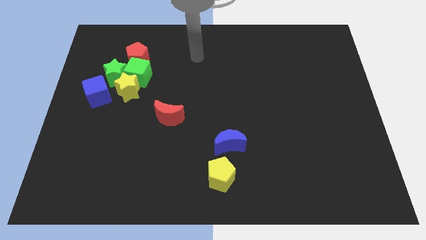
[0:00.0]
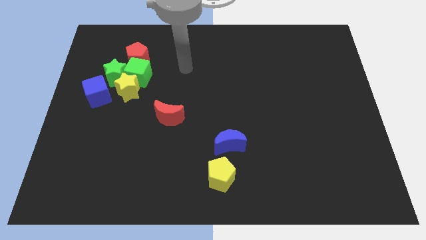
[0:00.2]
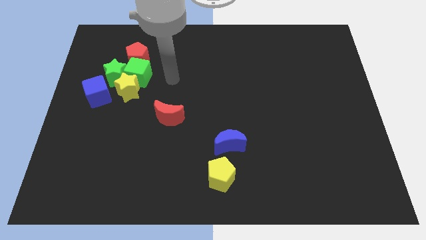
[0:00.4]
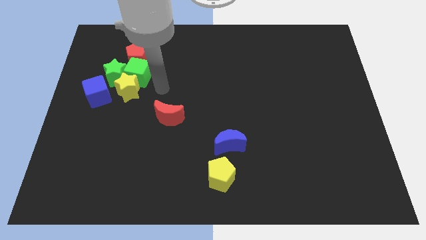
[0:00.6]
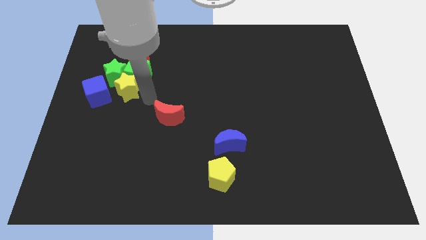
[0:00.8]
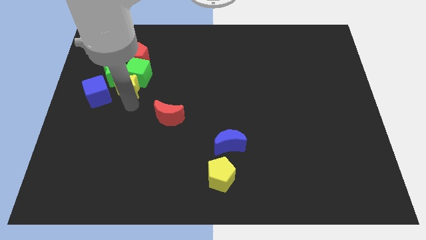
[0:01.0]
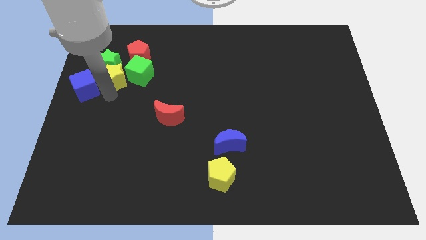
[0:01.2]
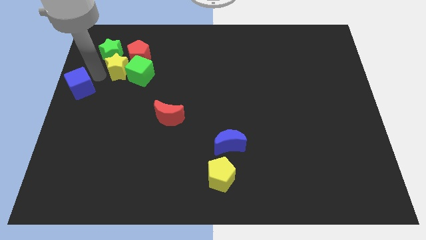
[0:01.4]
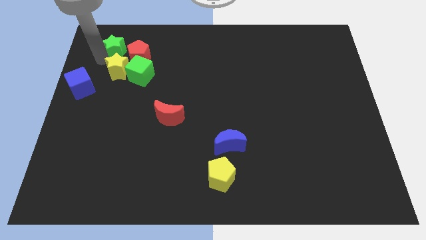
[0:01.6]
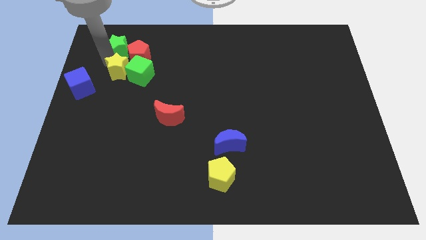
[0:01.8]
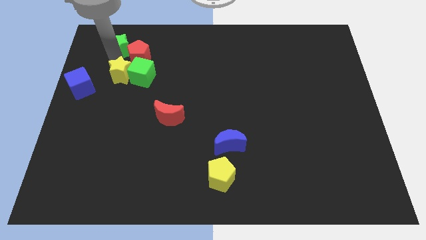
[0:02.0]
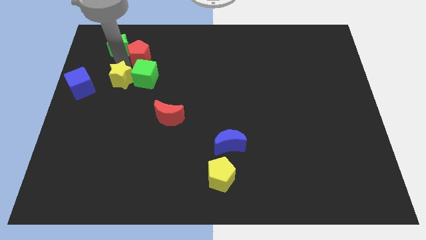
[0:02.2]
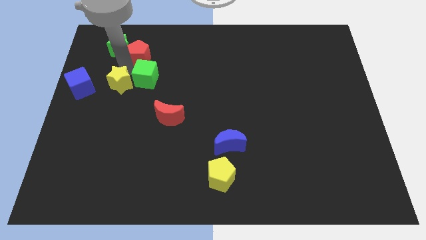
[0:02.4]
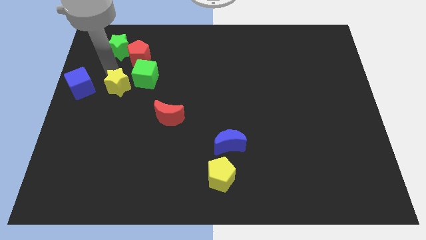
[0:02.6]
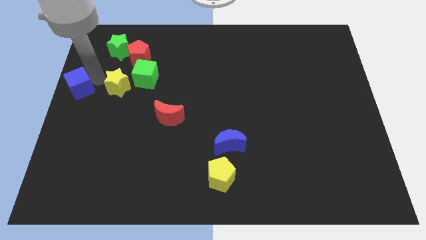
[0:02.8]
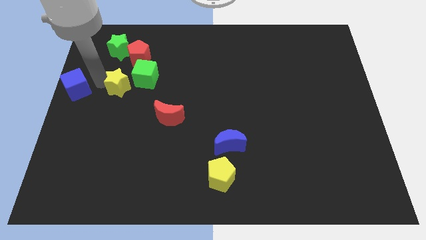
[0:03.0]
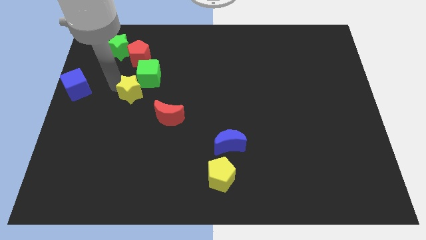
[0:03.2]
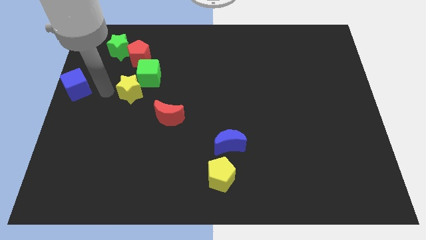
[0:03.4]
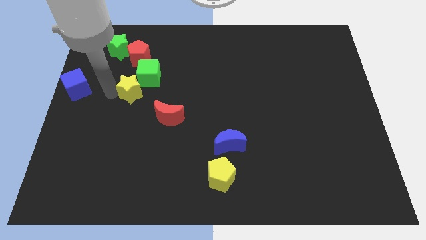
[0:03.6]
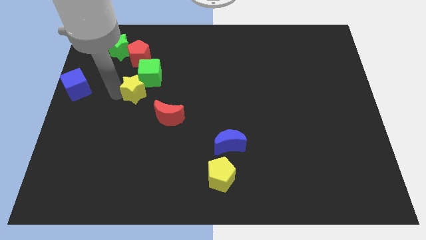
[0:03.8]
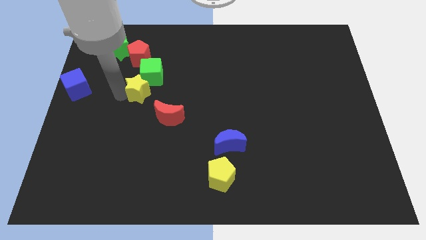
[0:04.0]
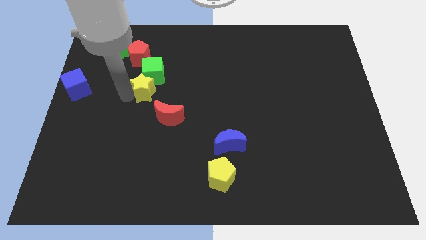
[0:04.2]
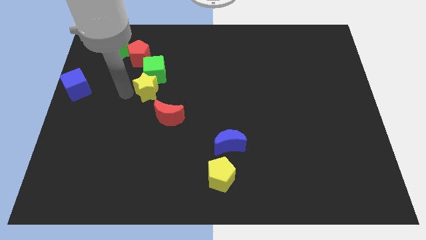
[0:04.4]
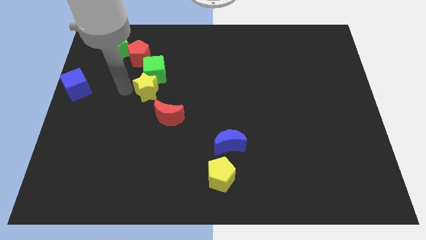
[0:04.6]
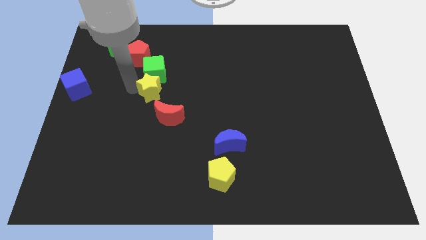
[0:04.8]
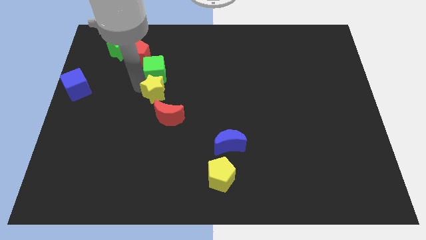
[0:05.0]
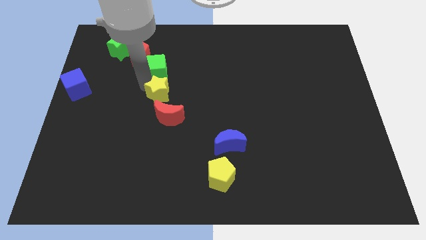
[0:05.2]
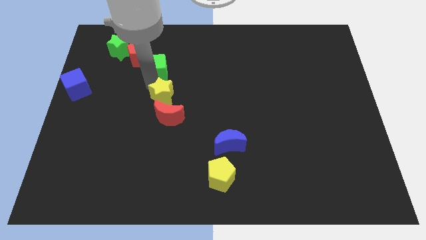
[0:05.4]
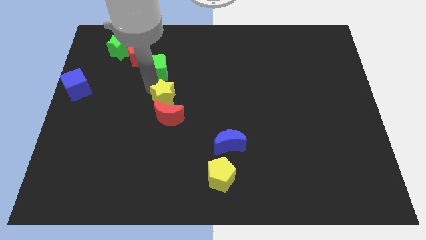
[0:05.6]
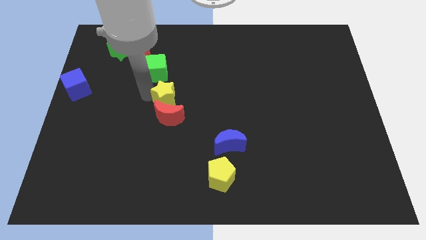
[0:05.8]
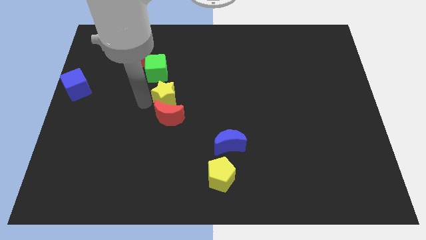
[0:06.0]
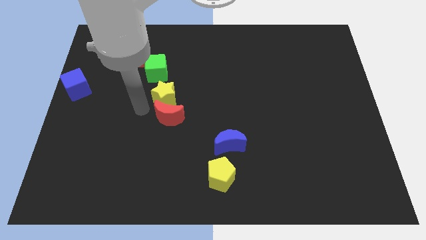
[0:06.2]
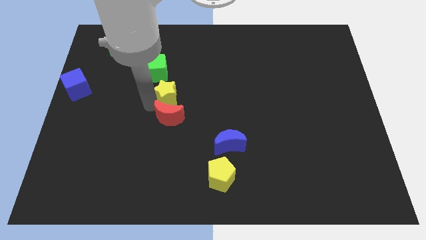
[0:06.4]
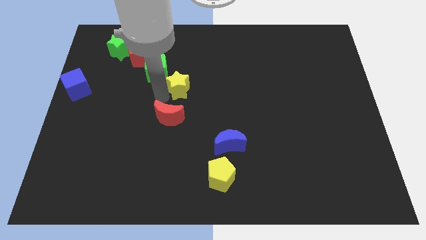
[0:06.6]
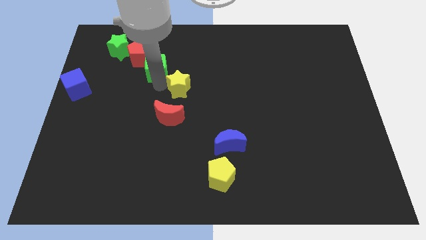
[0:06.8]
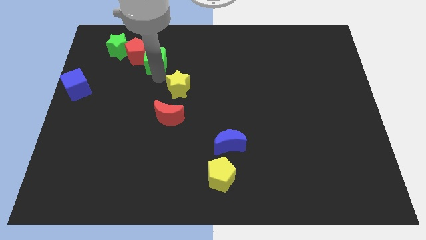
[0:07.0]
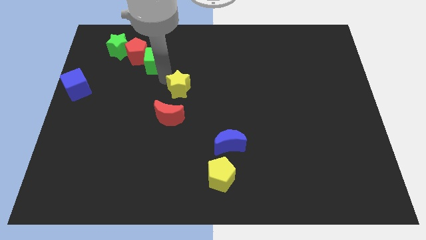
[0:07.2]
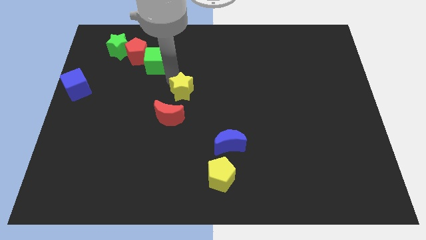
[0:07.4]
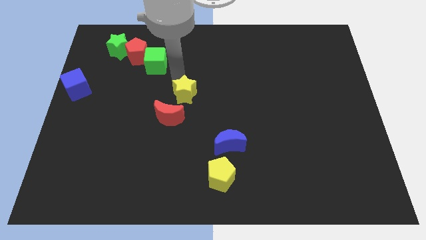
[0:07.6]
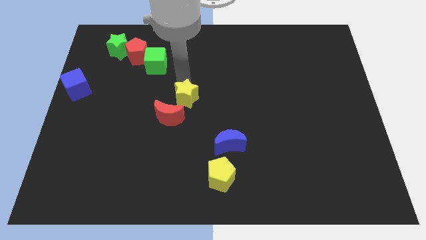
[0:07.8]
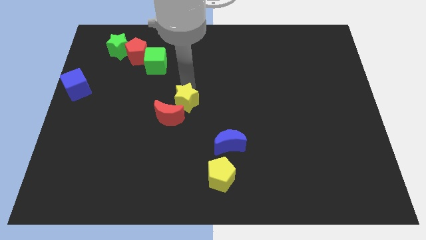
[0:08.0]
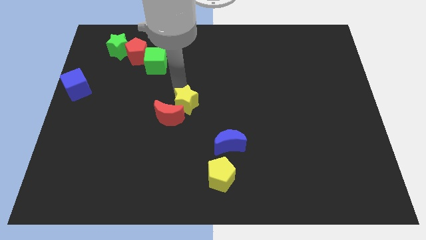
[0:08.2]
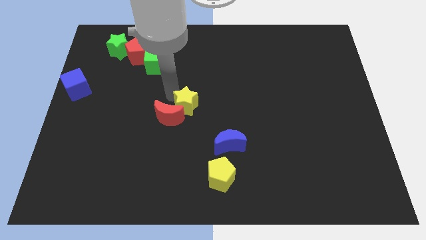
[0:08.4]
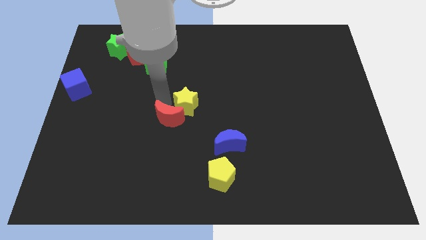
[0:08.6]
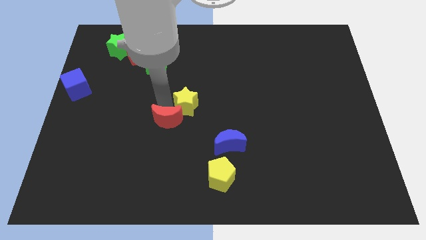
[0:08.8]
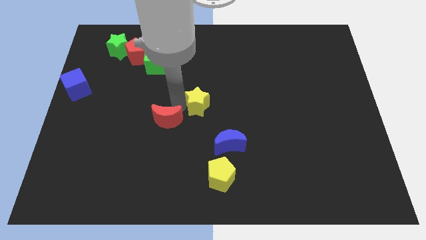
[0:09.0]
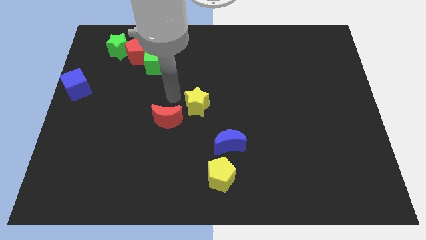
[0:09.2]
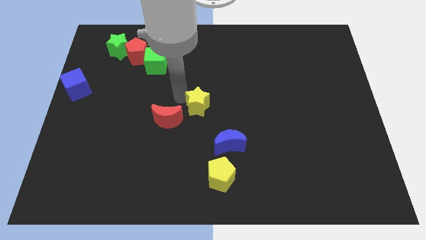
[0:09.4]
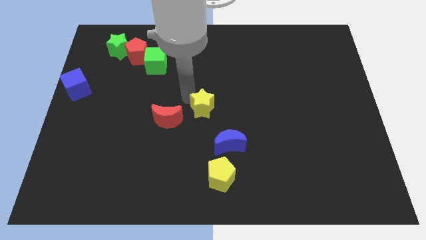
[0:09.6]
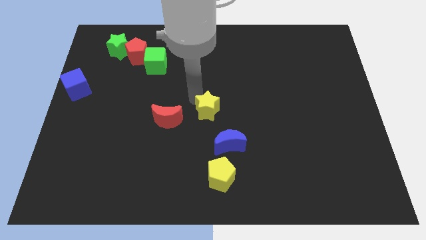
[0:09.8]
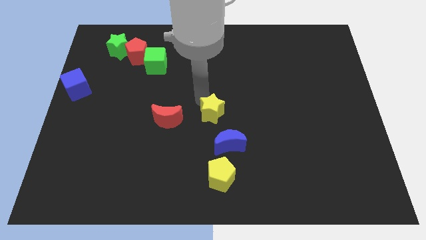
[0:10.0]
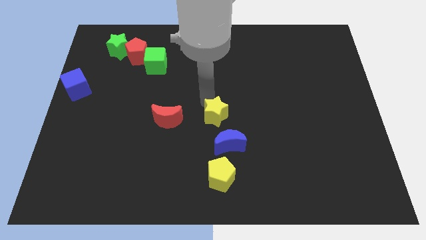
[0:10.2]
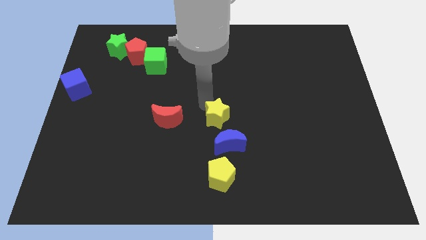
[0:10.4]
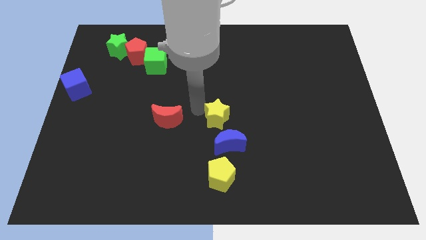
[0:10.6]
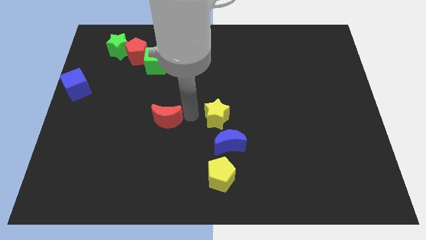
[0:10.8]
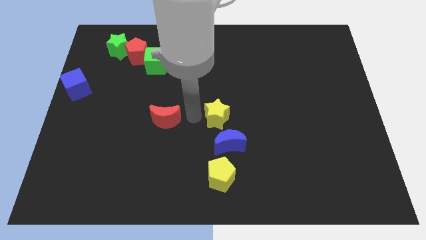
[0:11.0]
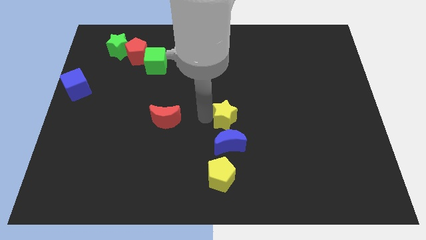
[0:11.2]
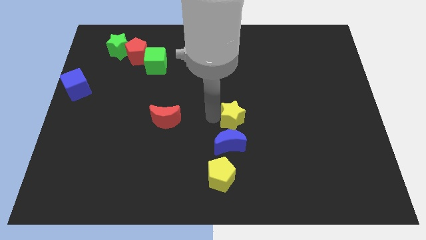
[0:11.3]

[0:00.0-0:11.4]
move the yellow star diagonally up and to the right of the blue moon

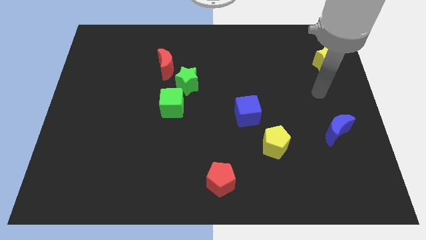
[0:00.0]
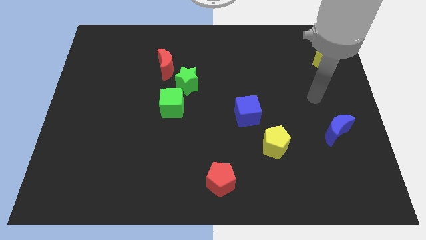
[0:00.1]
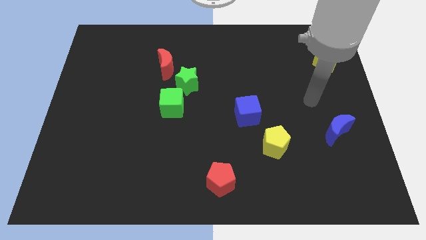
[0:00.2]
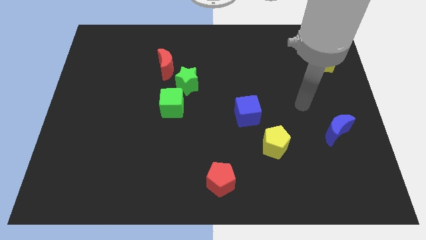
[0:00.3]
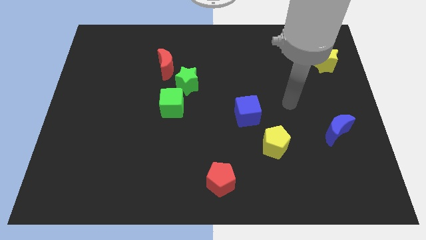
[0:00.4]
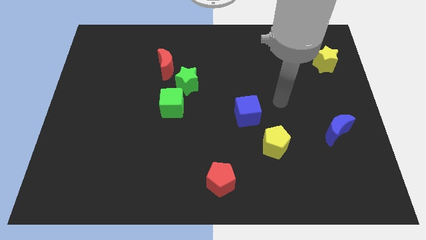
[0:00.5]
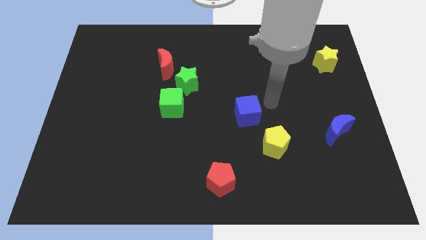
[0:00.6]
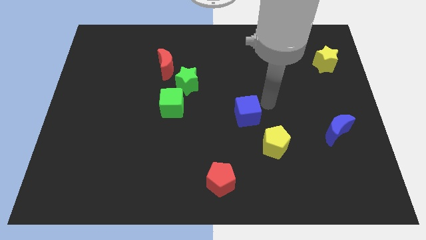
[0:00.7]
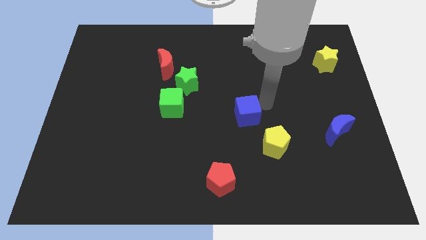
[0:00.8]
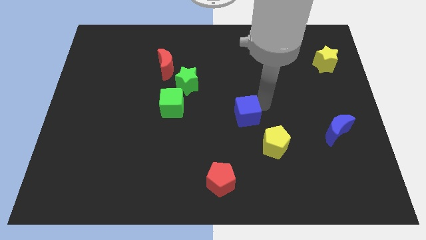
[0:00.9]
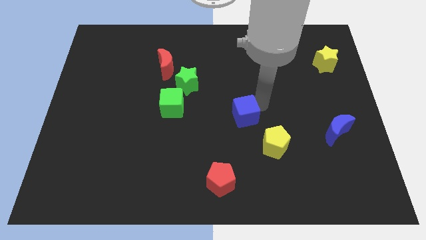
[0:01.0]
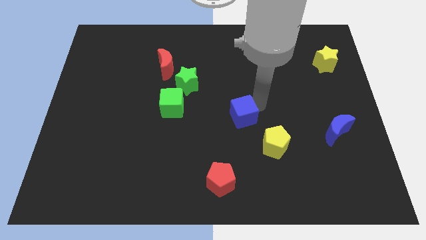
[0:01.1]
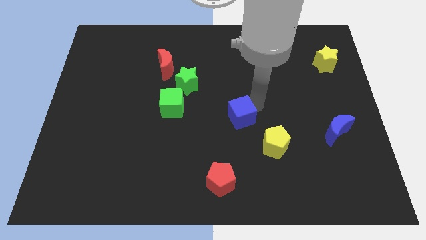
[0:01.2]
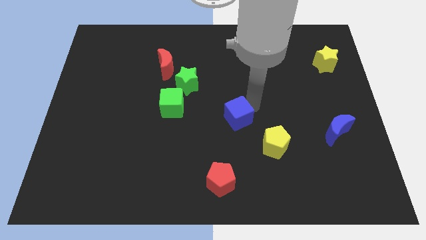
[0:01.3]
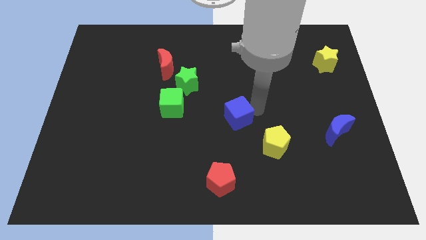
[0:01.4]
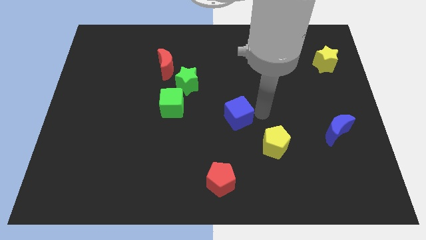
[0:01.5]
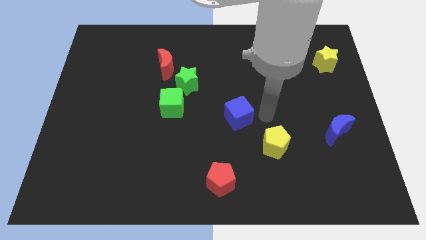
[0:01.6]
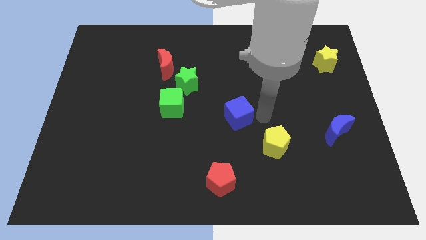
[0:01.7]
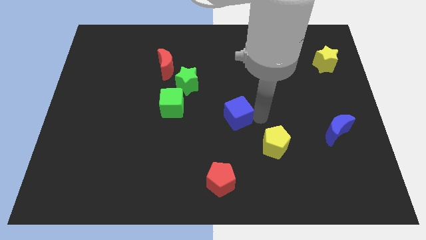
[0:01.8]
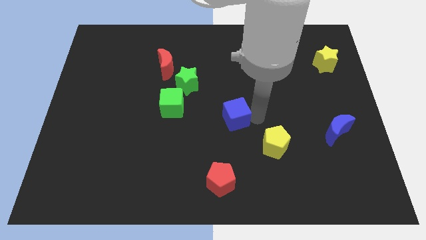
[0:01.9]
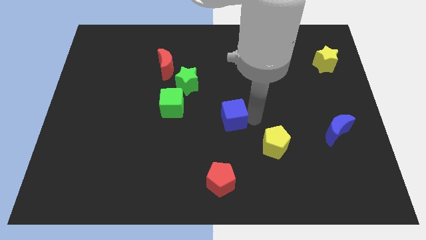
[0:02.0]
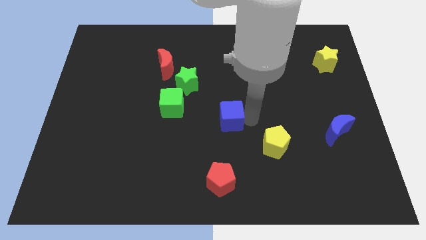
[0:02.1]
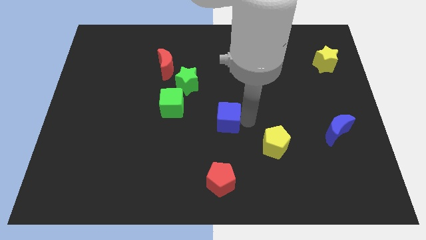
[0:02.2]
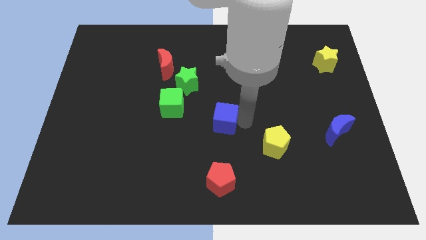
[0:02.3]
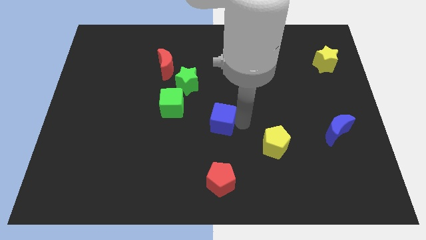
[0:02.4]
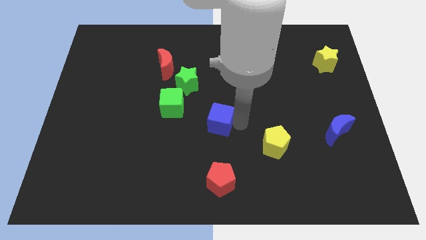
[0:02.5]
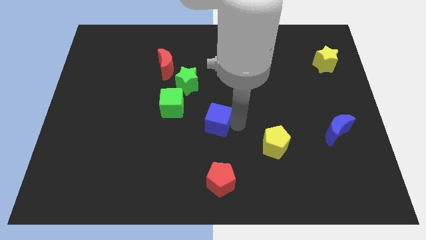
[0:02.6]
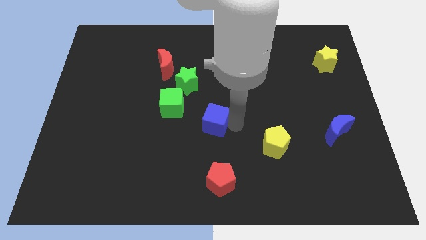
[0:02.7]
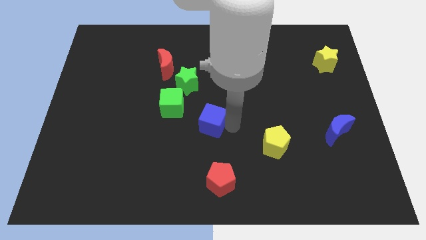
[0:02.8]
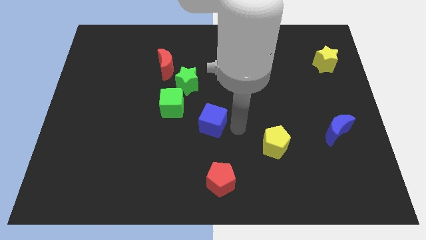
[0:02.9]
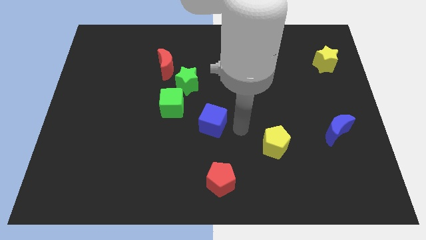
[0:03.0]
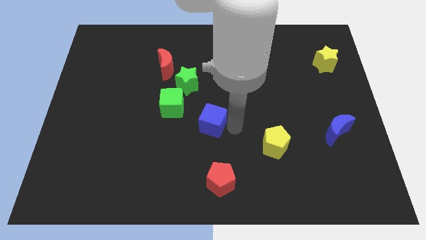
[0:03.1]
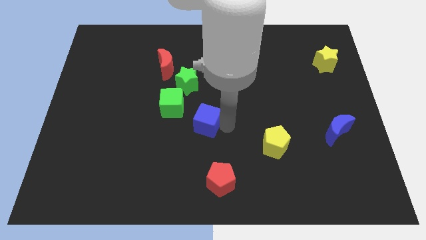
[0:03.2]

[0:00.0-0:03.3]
put the blue cube to the bottom of the green star
